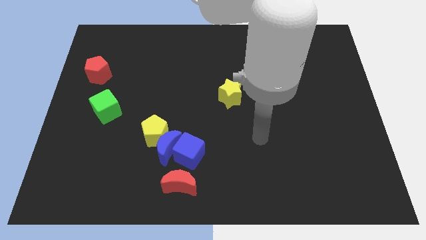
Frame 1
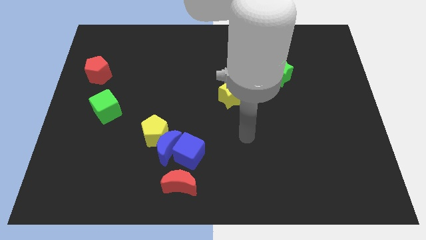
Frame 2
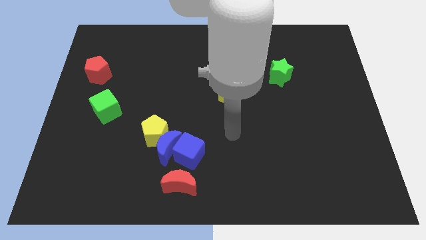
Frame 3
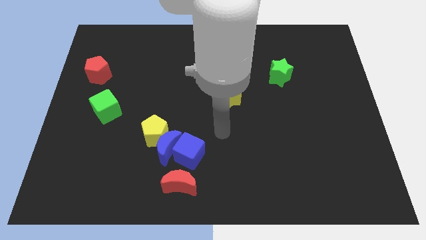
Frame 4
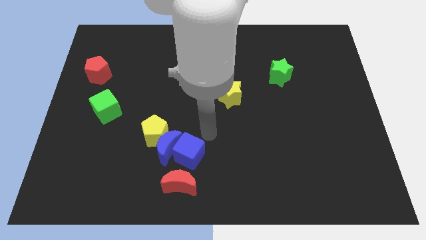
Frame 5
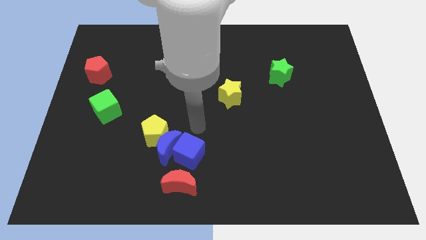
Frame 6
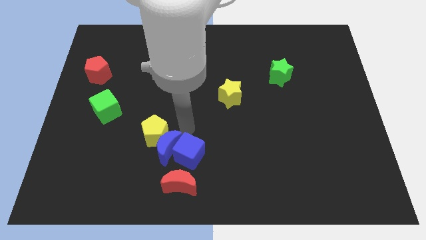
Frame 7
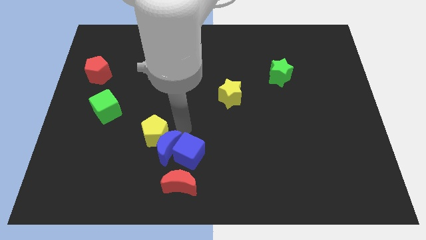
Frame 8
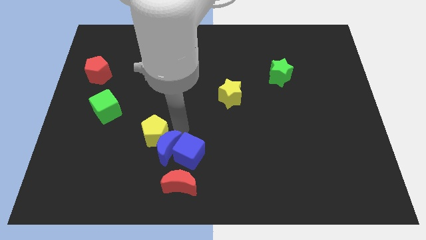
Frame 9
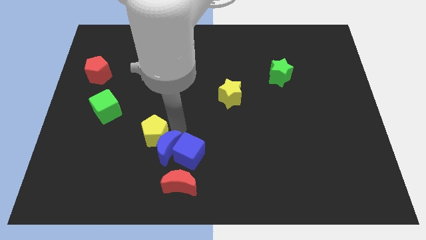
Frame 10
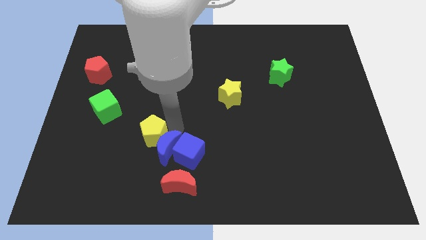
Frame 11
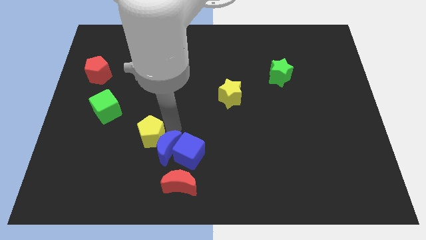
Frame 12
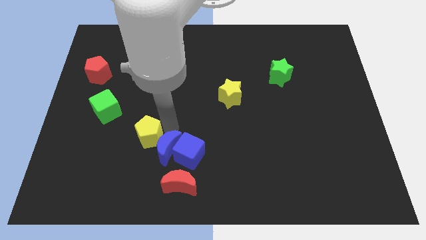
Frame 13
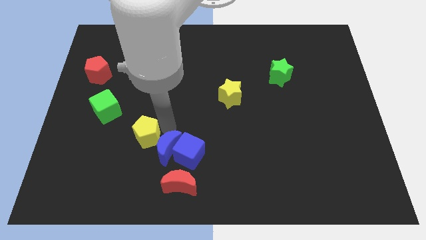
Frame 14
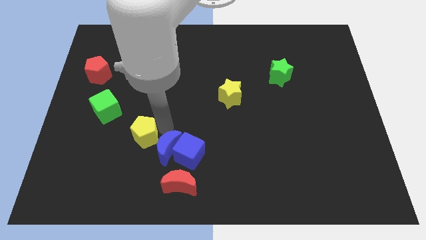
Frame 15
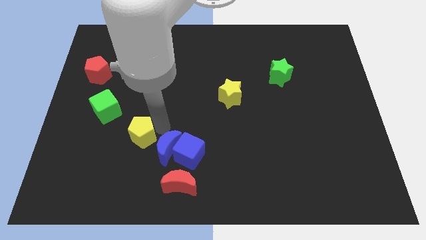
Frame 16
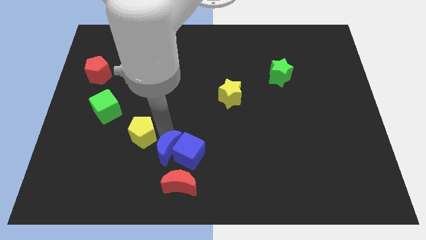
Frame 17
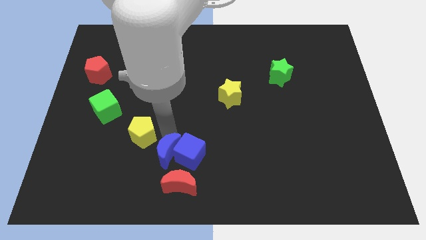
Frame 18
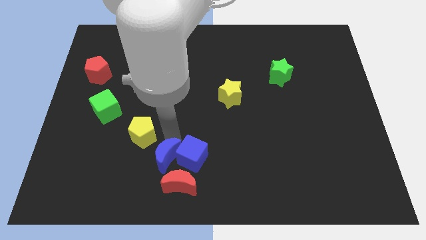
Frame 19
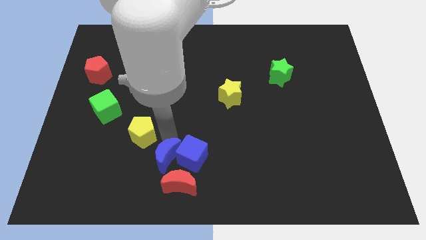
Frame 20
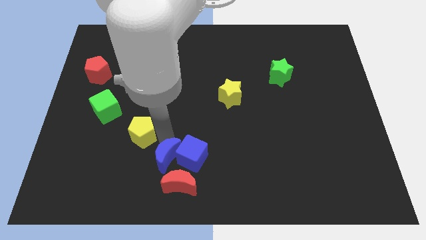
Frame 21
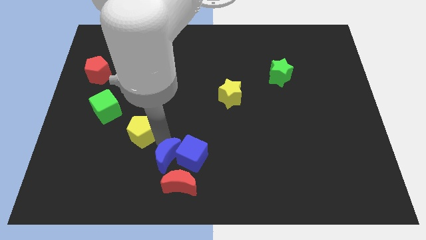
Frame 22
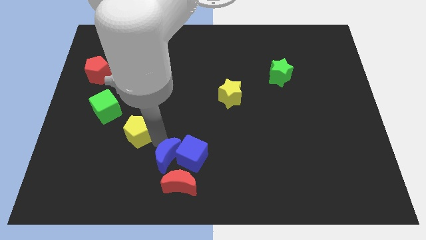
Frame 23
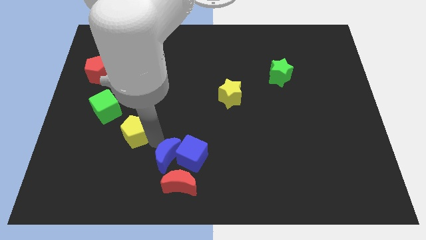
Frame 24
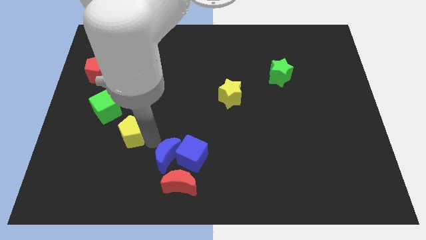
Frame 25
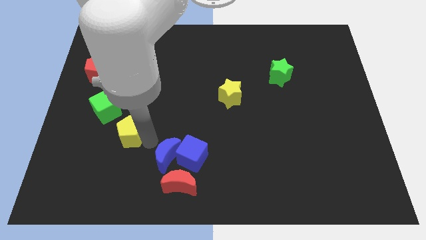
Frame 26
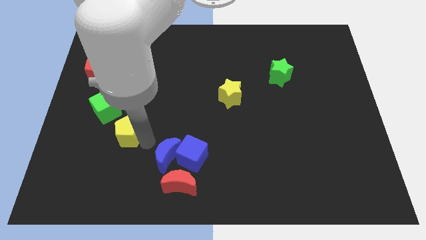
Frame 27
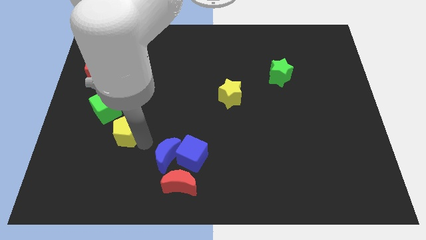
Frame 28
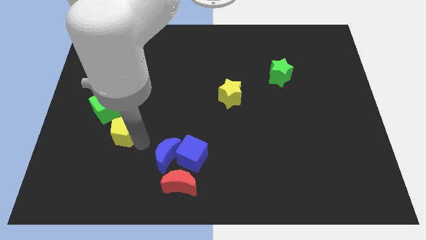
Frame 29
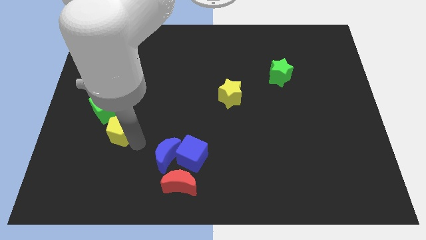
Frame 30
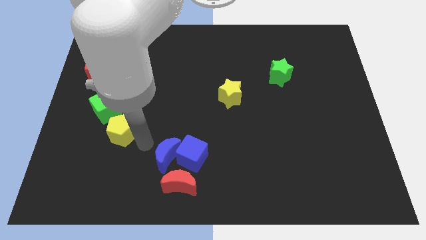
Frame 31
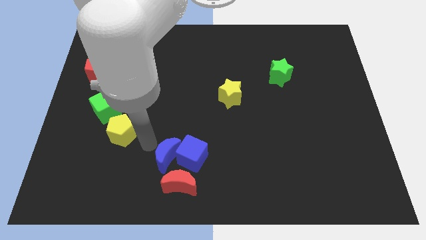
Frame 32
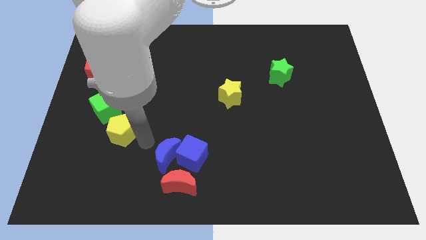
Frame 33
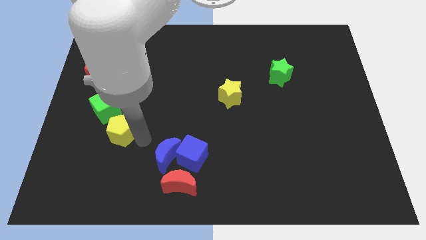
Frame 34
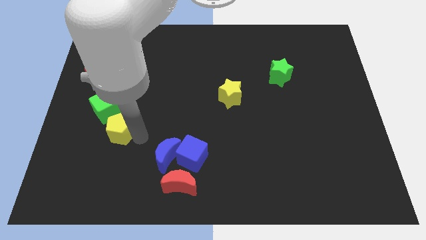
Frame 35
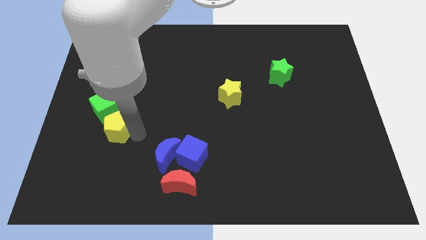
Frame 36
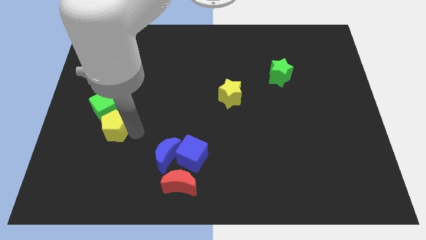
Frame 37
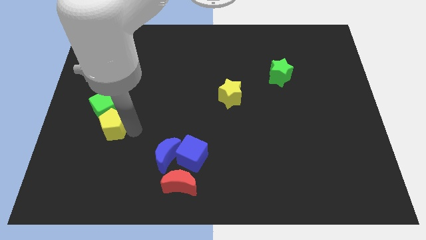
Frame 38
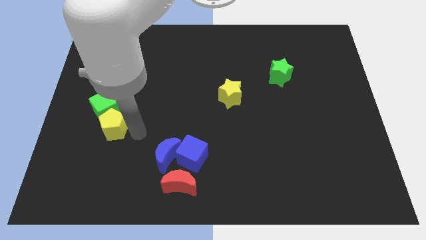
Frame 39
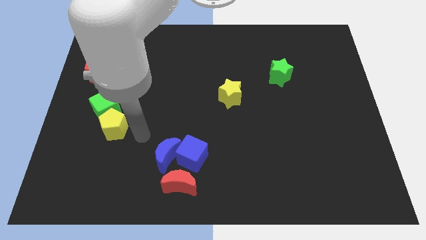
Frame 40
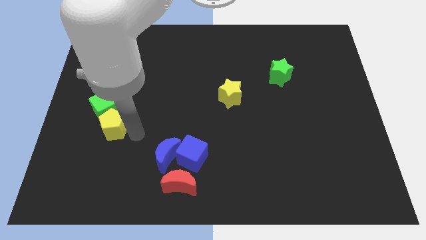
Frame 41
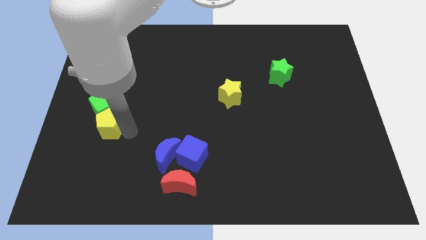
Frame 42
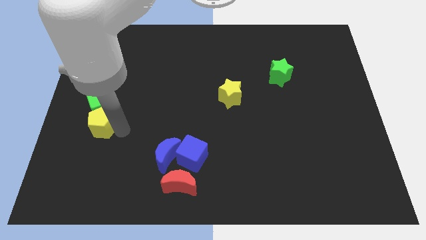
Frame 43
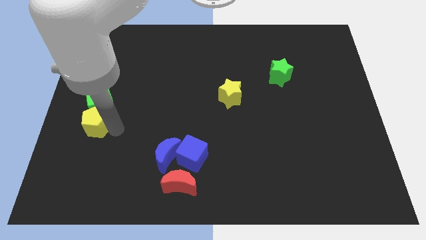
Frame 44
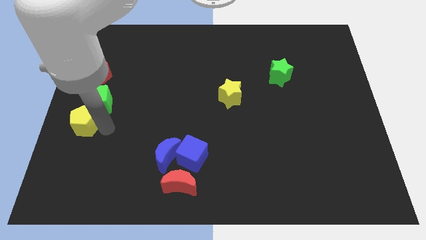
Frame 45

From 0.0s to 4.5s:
push the yellow pentagon to the center left

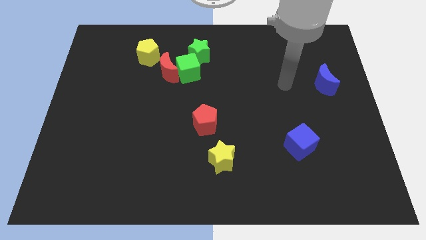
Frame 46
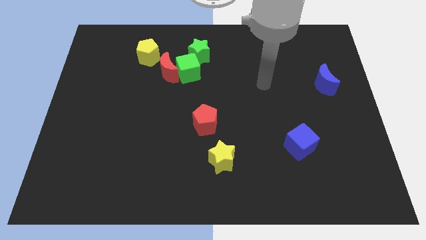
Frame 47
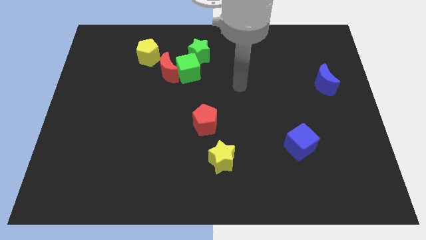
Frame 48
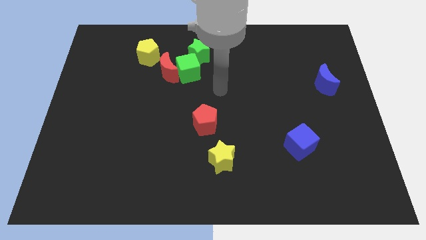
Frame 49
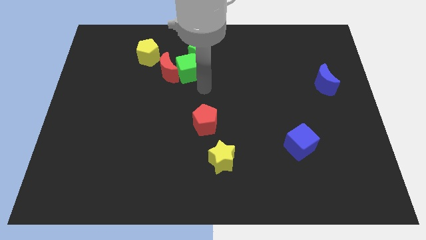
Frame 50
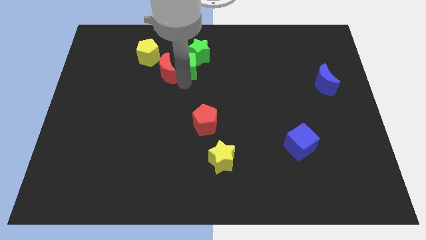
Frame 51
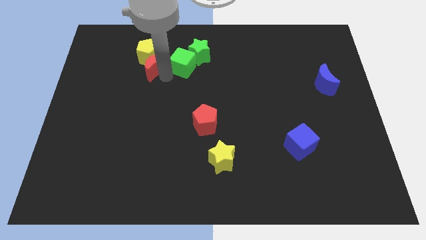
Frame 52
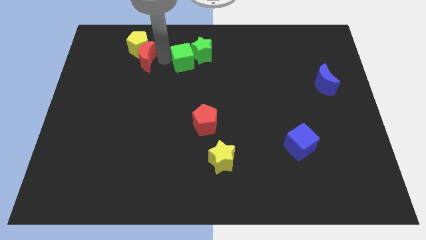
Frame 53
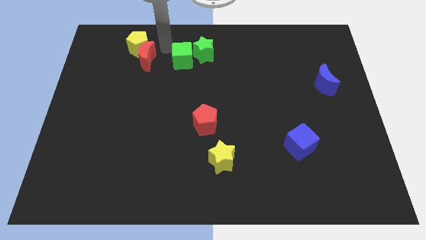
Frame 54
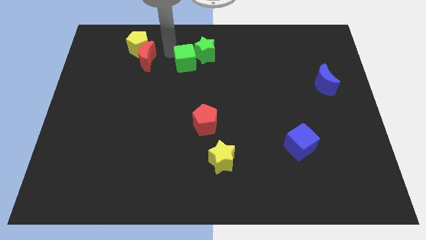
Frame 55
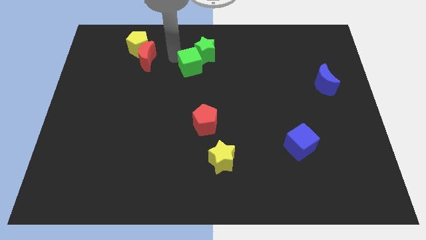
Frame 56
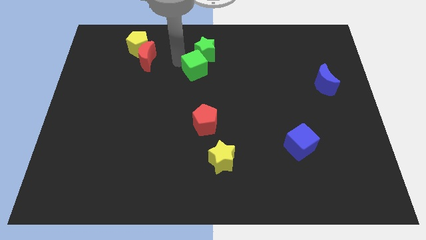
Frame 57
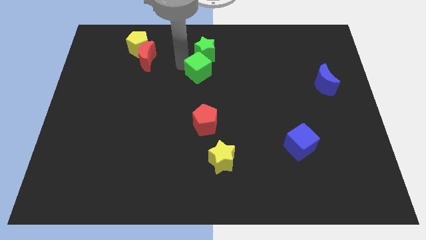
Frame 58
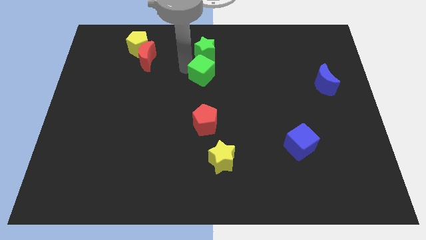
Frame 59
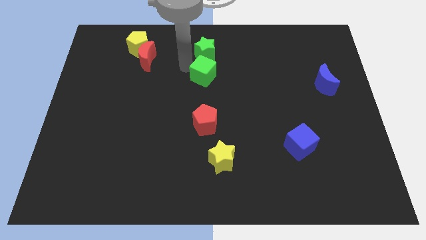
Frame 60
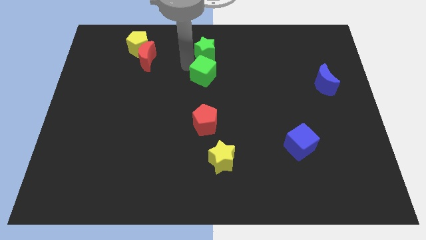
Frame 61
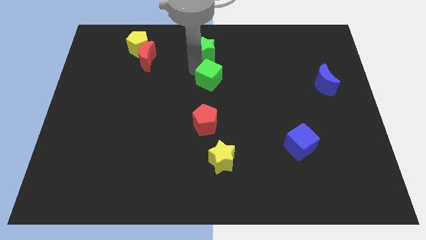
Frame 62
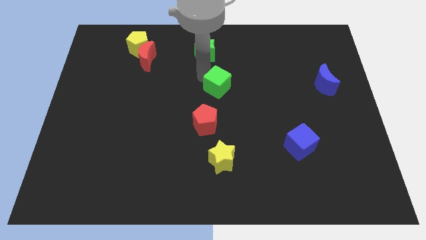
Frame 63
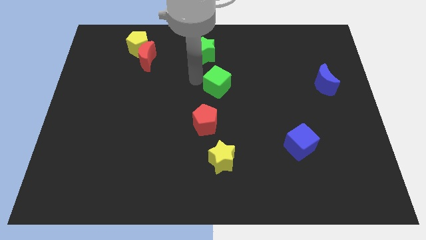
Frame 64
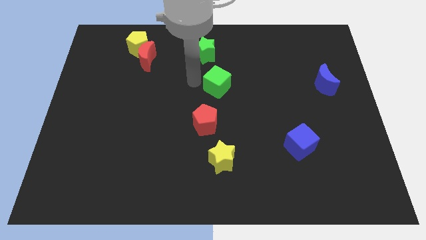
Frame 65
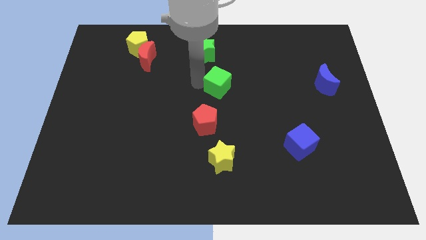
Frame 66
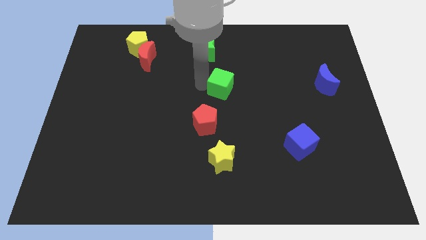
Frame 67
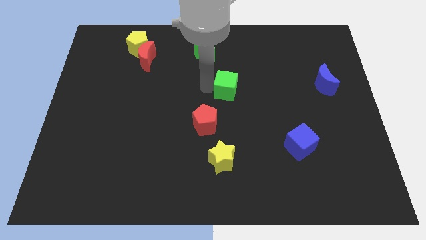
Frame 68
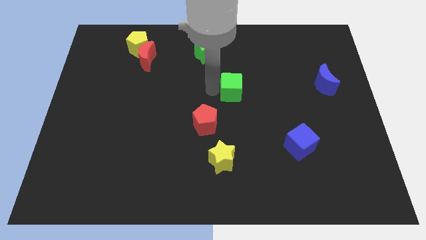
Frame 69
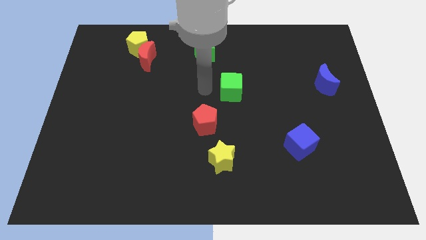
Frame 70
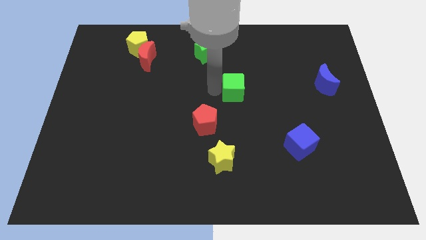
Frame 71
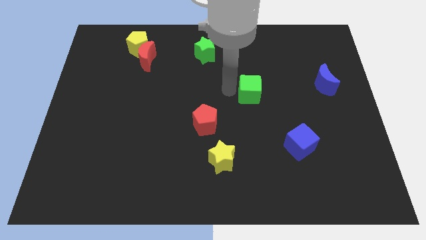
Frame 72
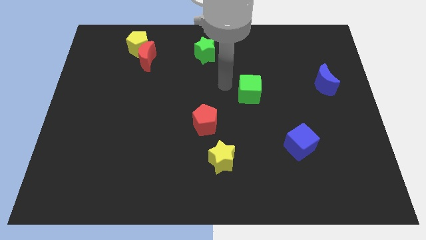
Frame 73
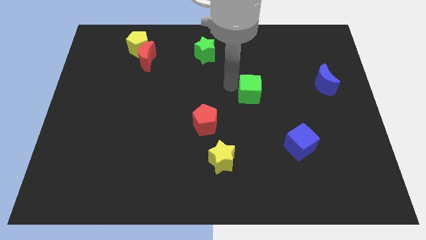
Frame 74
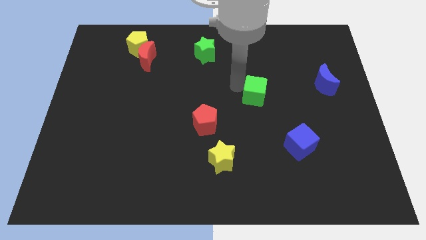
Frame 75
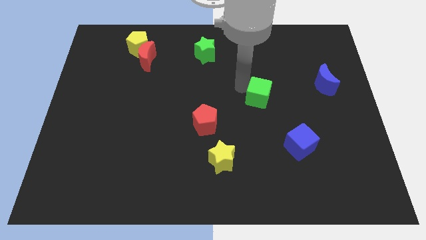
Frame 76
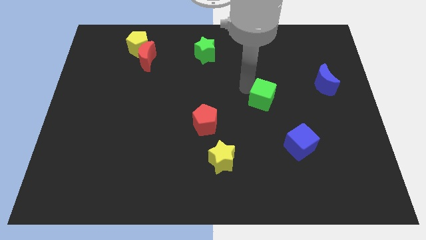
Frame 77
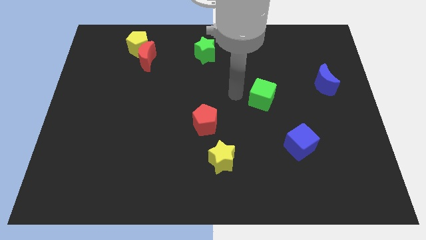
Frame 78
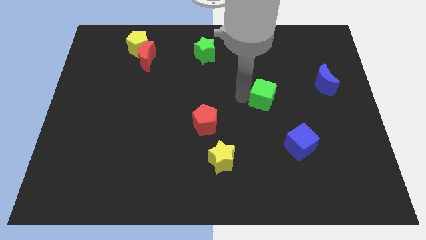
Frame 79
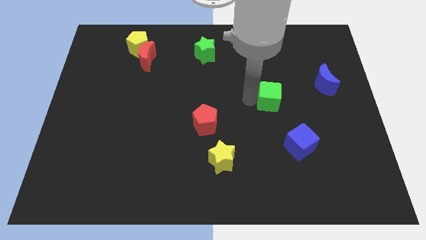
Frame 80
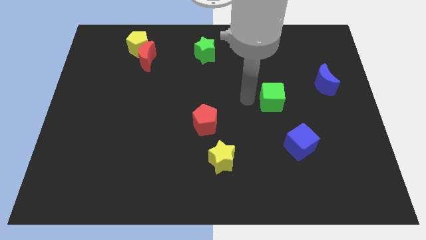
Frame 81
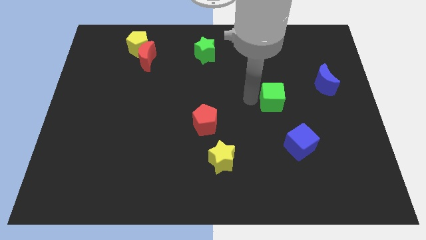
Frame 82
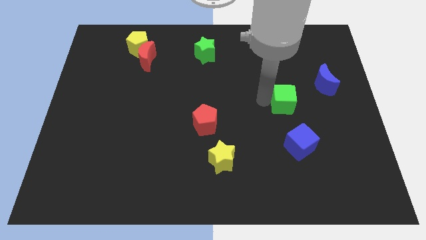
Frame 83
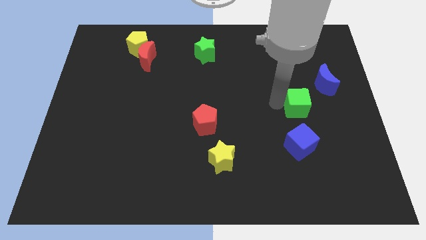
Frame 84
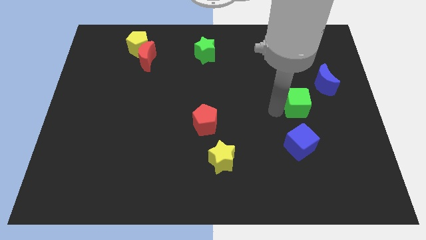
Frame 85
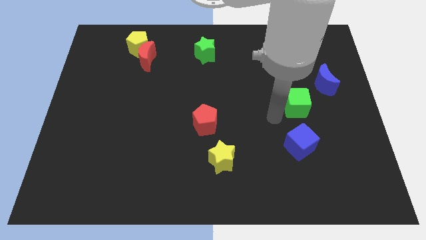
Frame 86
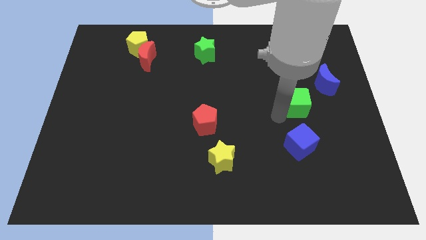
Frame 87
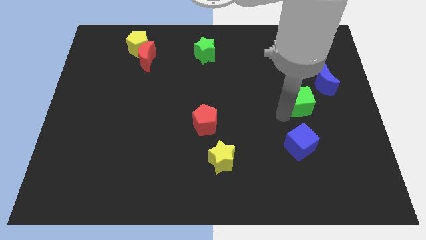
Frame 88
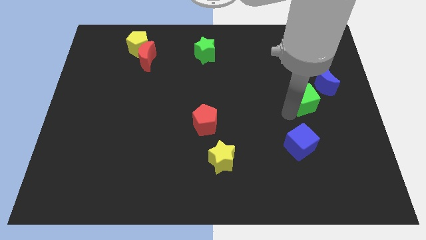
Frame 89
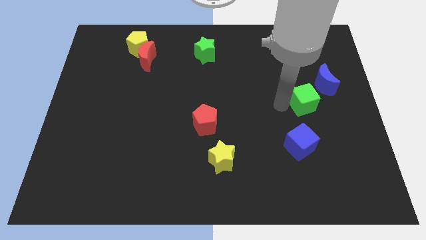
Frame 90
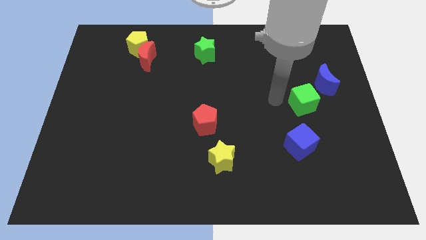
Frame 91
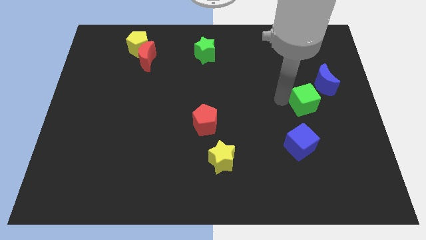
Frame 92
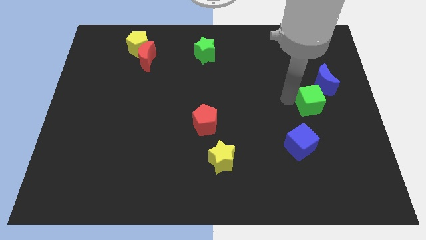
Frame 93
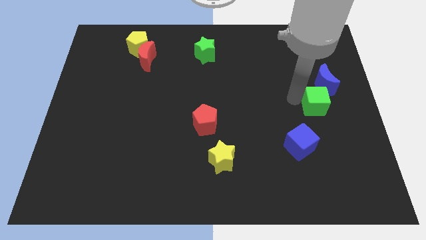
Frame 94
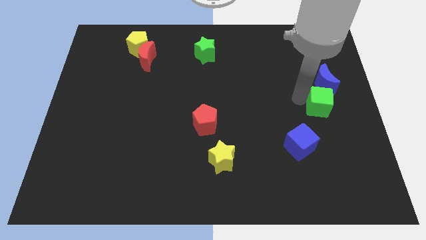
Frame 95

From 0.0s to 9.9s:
slide the green cube to the right side of the board
